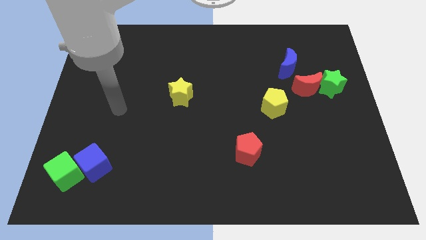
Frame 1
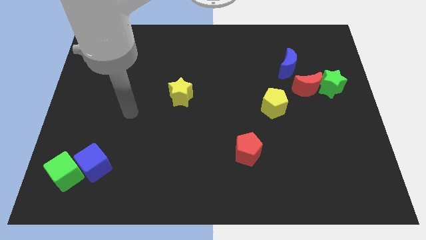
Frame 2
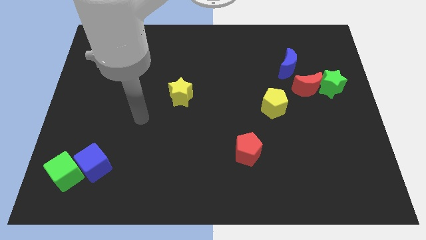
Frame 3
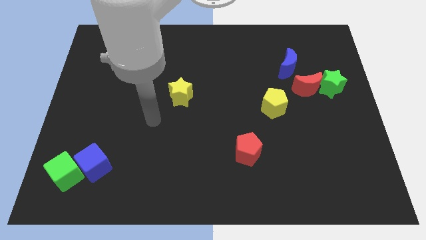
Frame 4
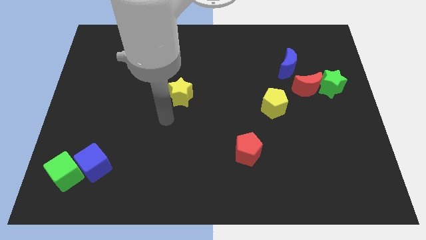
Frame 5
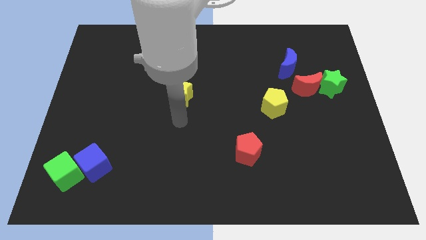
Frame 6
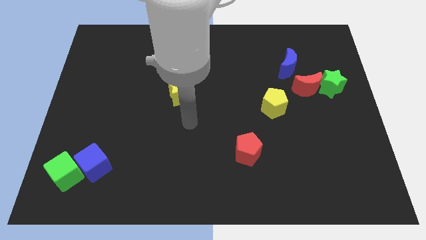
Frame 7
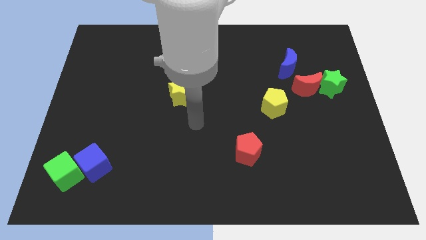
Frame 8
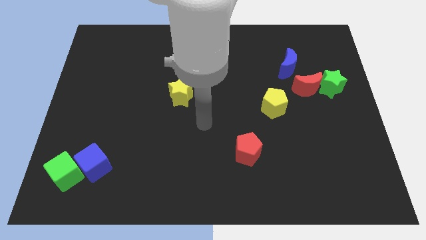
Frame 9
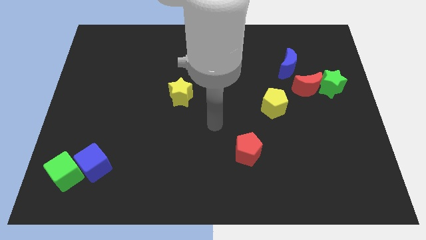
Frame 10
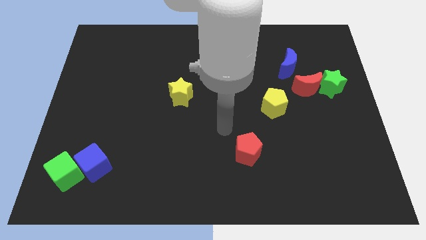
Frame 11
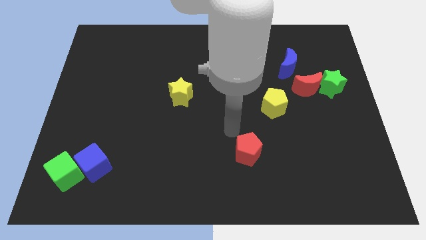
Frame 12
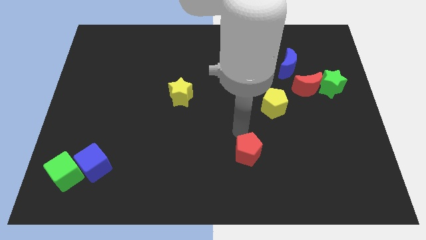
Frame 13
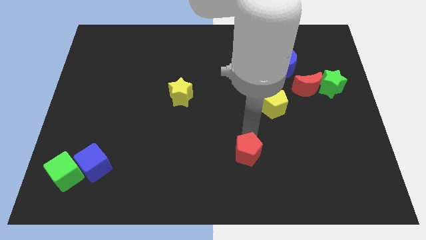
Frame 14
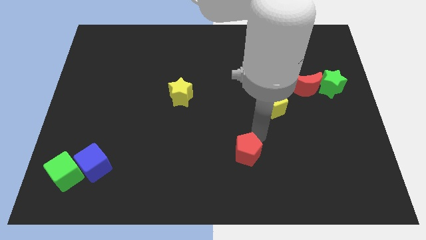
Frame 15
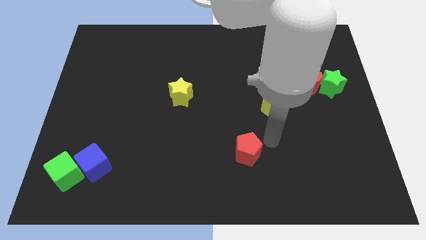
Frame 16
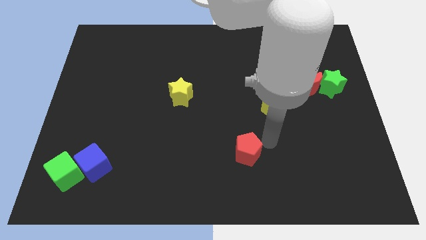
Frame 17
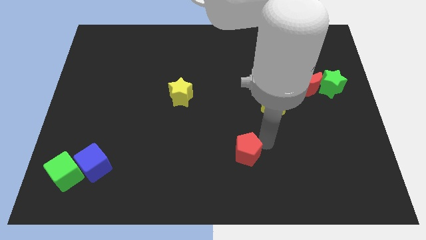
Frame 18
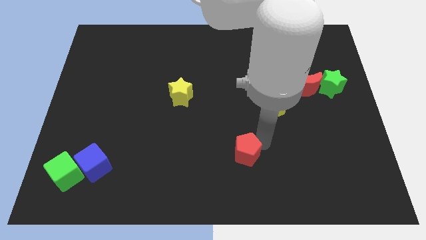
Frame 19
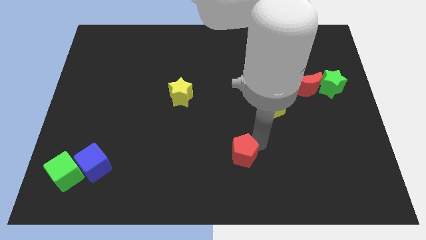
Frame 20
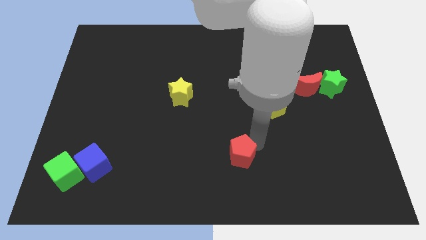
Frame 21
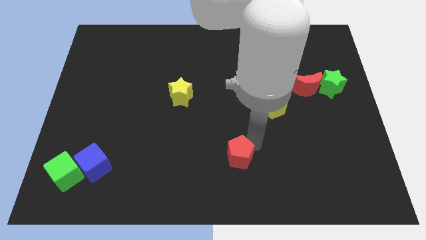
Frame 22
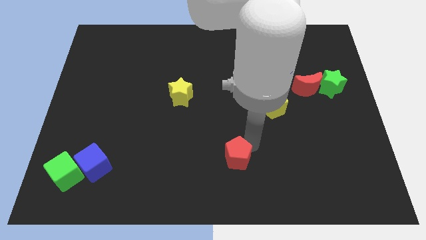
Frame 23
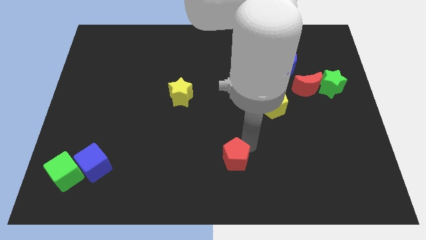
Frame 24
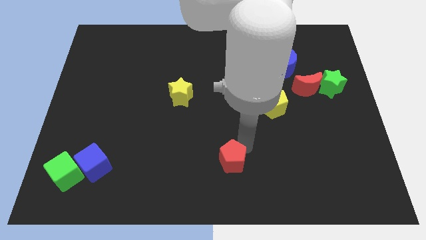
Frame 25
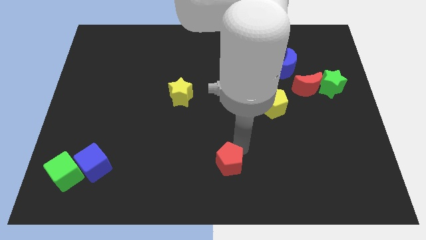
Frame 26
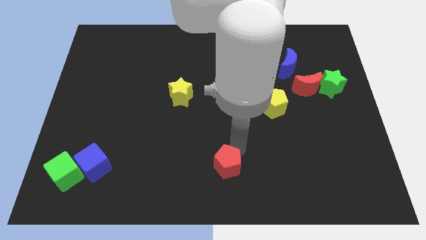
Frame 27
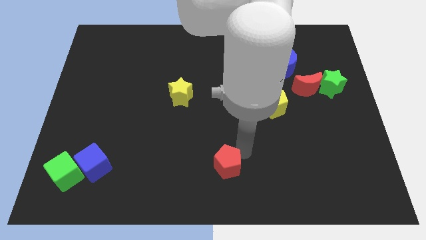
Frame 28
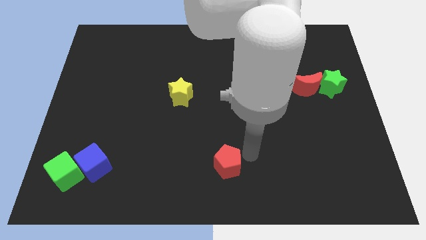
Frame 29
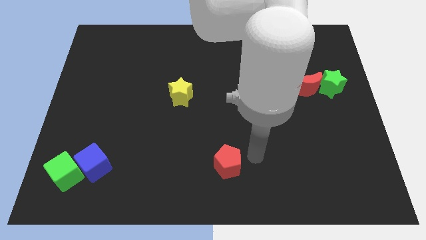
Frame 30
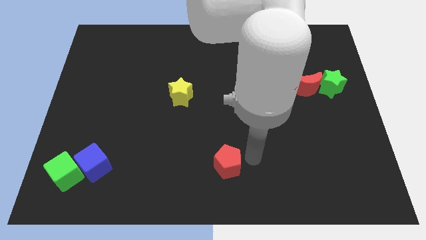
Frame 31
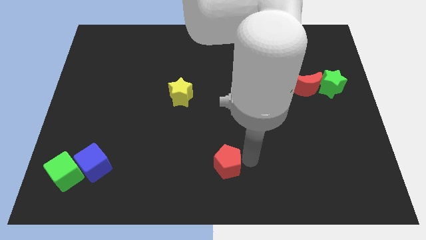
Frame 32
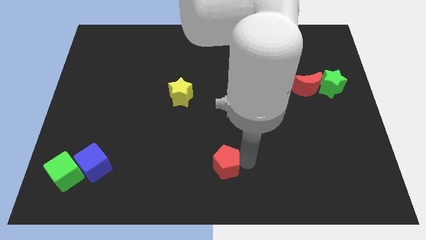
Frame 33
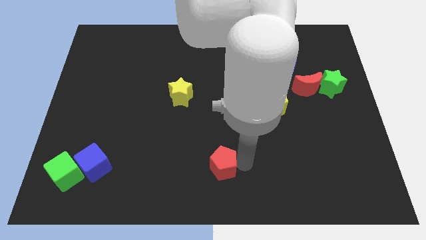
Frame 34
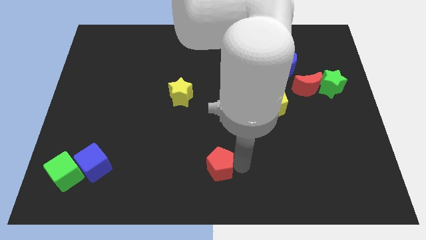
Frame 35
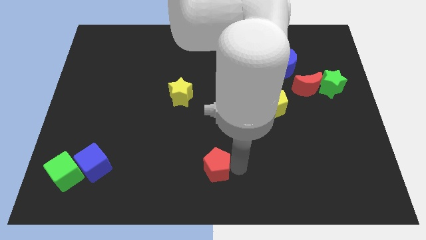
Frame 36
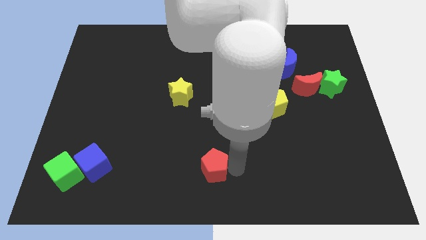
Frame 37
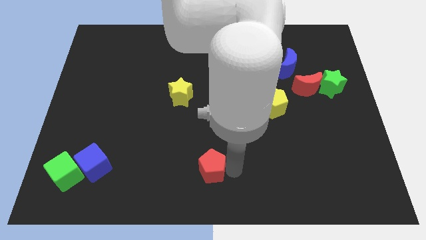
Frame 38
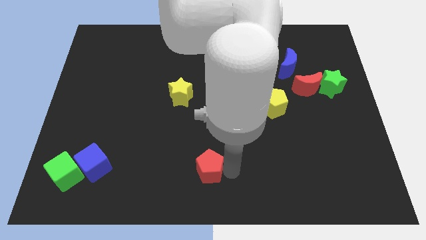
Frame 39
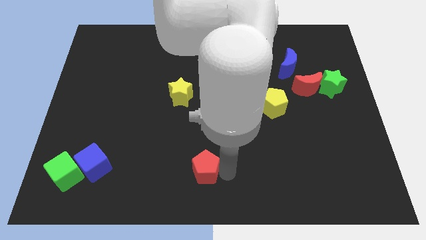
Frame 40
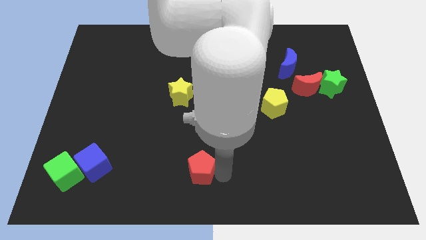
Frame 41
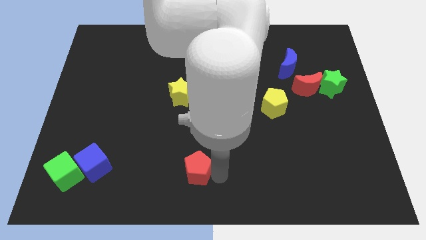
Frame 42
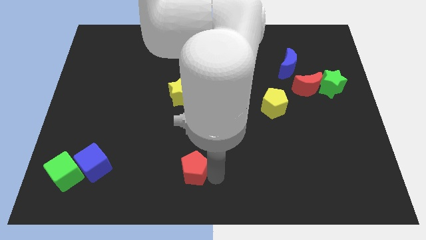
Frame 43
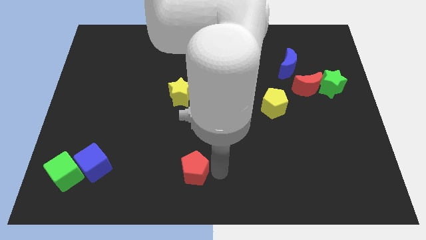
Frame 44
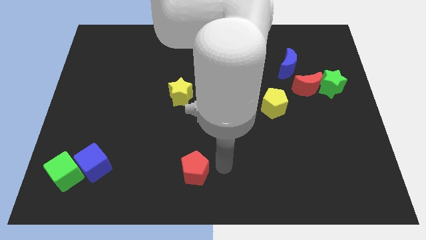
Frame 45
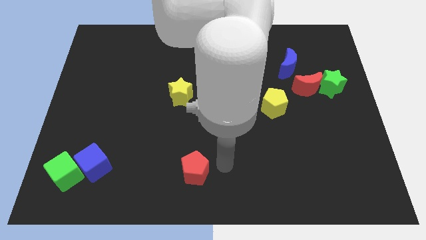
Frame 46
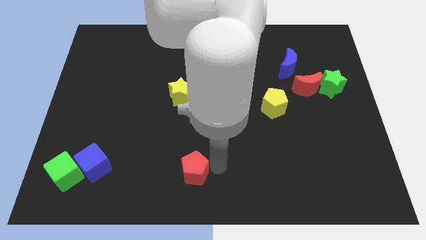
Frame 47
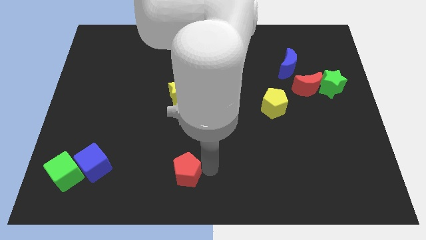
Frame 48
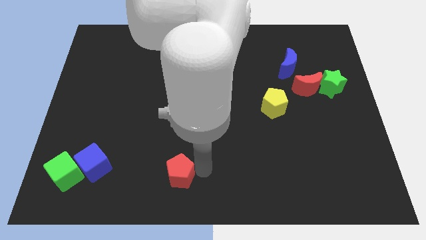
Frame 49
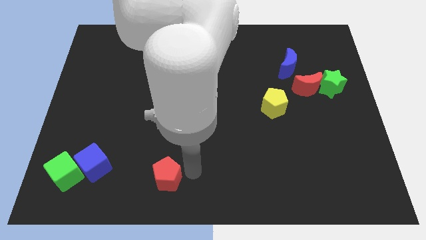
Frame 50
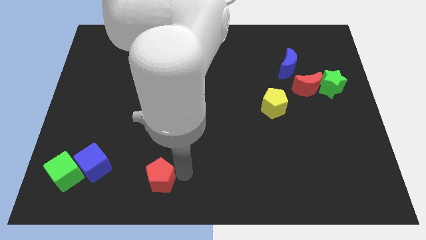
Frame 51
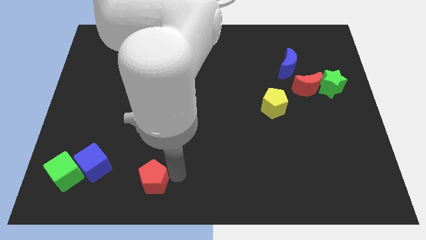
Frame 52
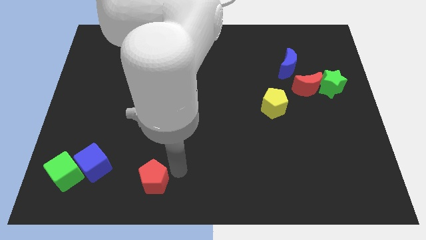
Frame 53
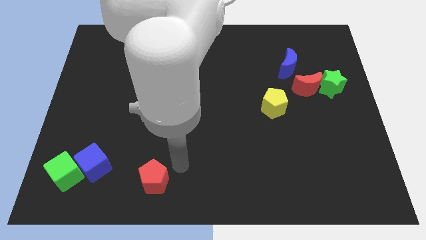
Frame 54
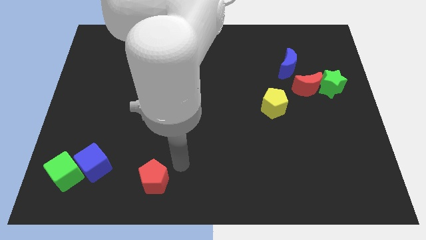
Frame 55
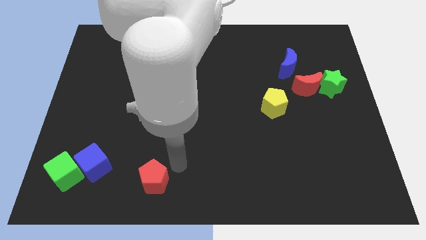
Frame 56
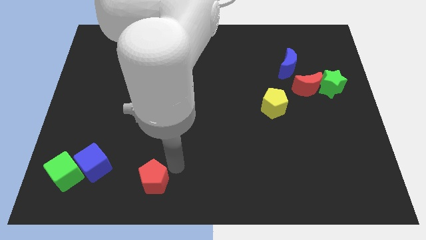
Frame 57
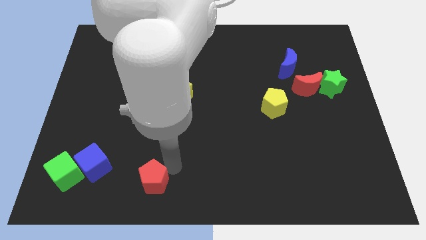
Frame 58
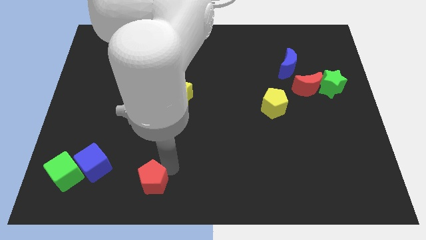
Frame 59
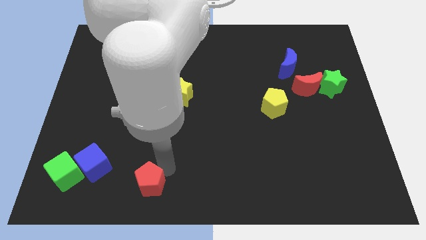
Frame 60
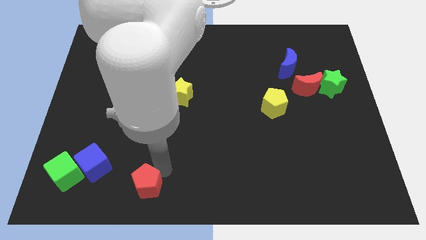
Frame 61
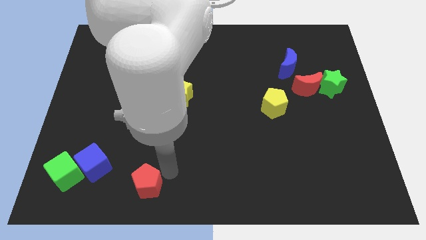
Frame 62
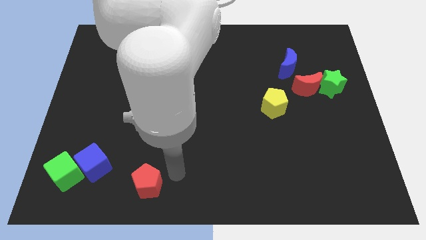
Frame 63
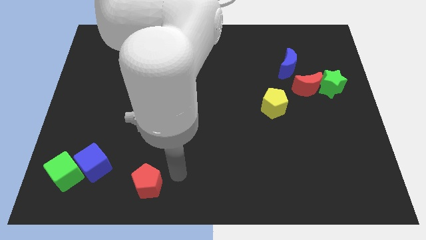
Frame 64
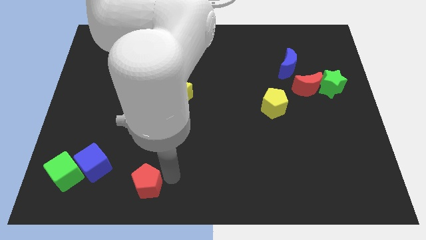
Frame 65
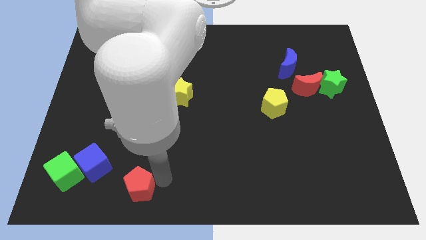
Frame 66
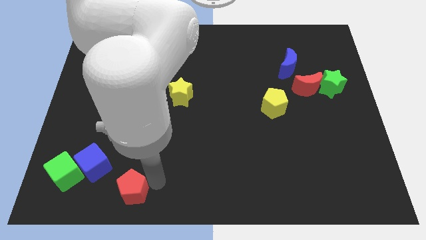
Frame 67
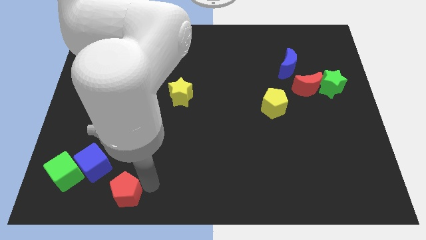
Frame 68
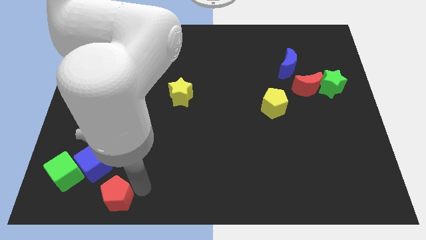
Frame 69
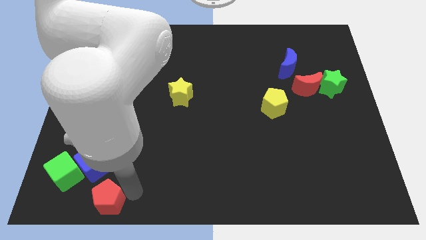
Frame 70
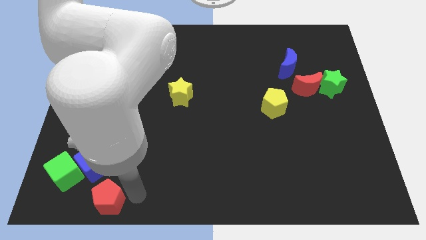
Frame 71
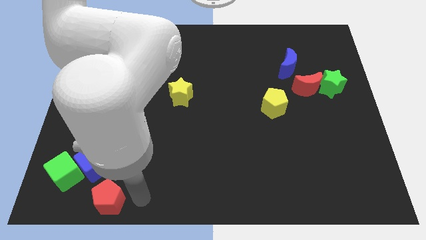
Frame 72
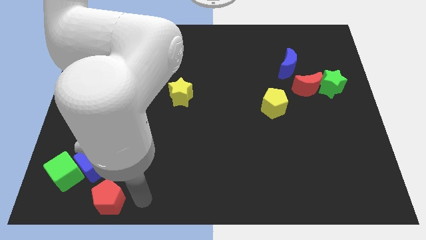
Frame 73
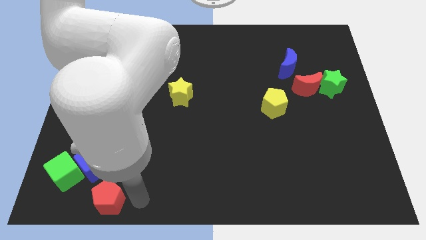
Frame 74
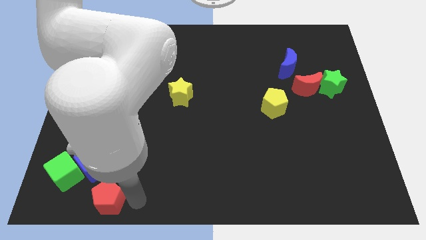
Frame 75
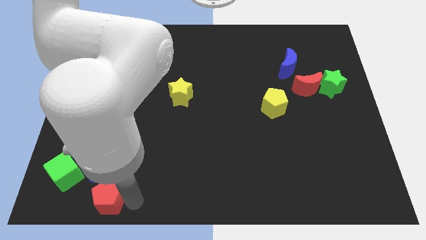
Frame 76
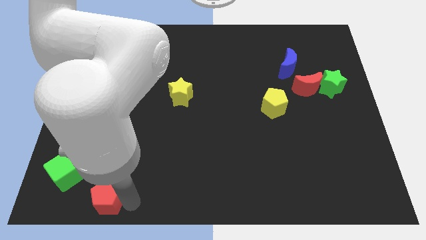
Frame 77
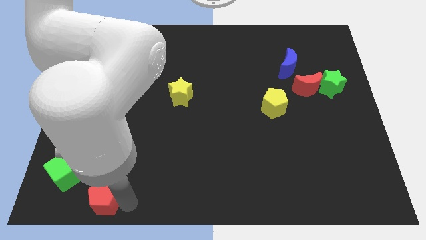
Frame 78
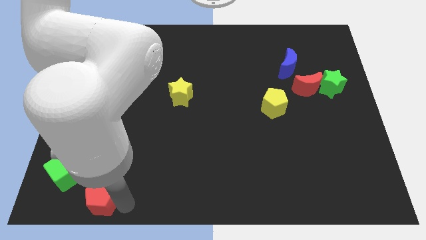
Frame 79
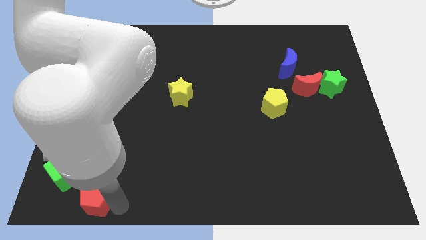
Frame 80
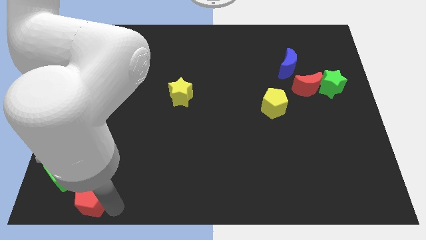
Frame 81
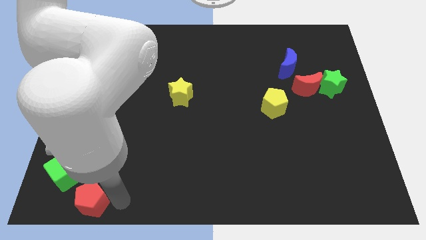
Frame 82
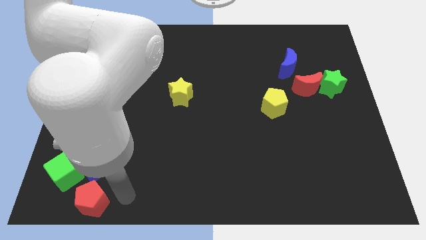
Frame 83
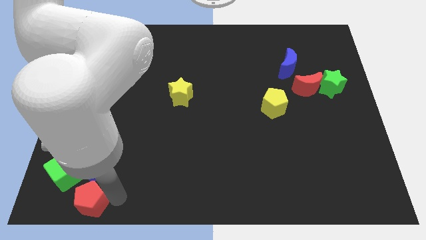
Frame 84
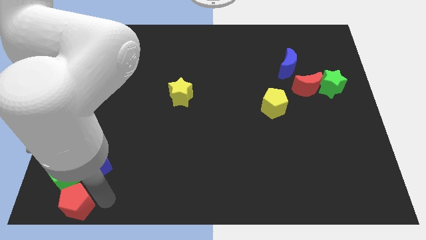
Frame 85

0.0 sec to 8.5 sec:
put the red pentagon to the bottom left corner
